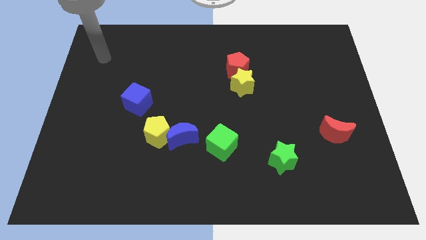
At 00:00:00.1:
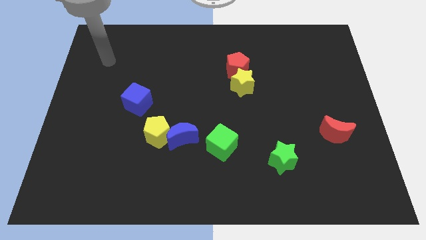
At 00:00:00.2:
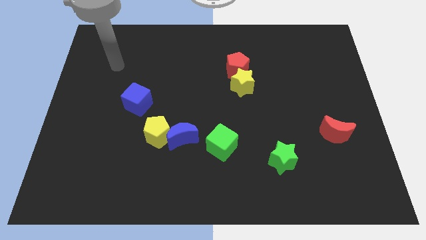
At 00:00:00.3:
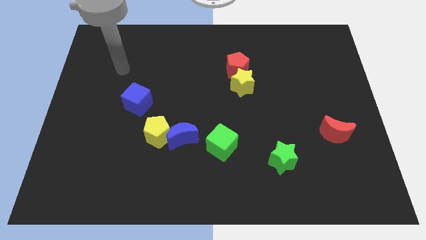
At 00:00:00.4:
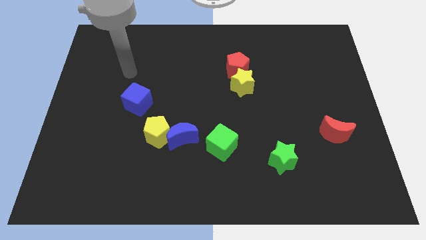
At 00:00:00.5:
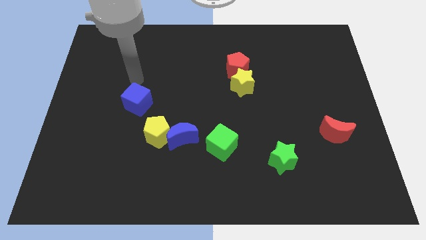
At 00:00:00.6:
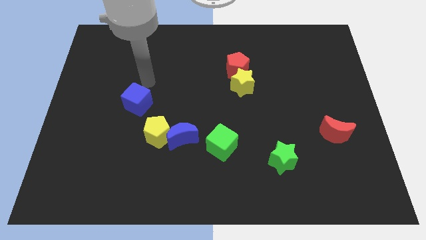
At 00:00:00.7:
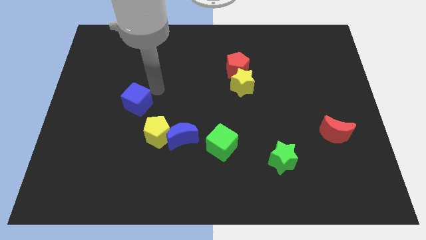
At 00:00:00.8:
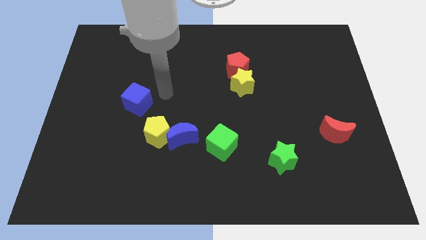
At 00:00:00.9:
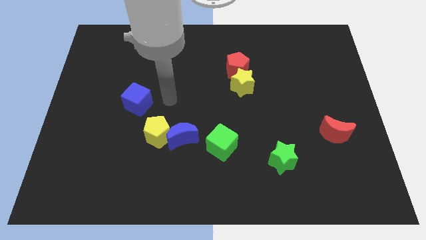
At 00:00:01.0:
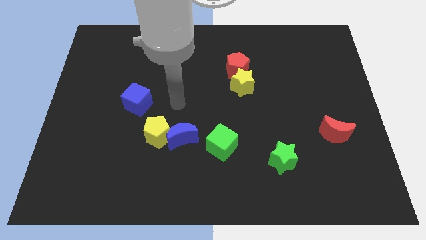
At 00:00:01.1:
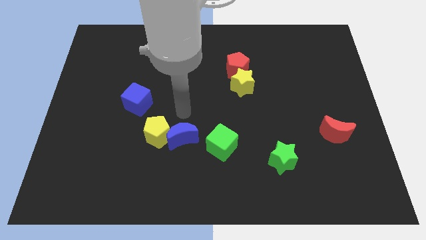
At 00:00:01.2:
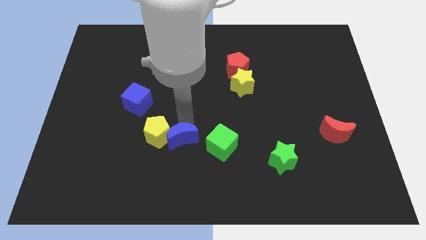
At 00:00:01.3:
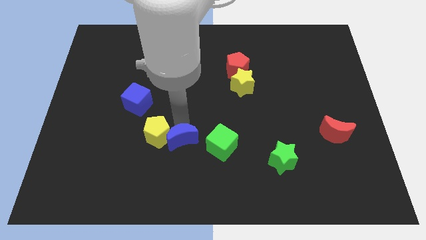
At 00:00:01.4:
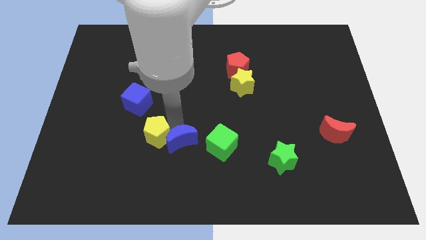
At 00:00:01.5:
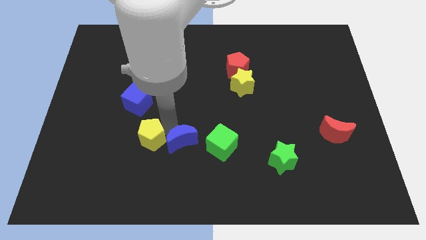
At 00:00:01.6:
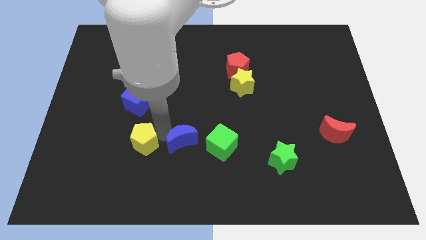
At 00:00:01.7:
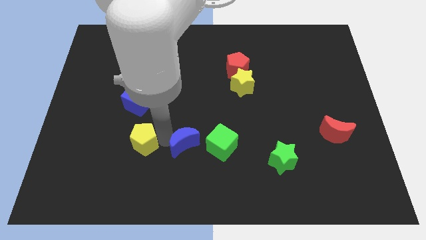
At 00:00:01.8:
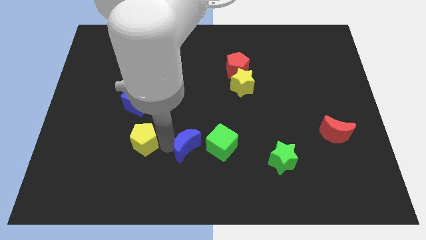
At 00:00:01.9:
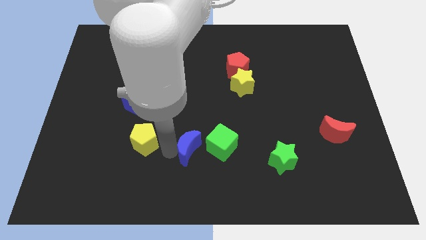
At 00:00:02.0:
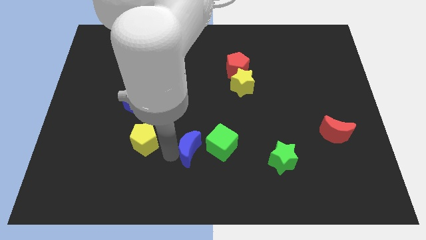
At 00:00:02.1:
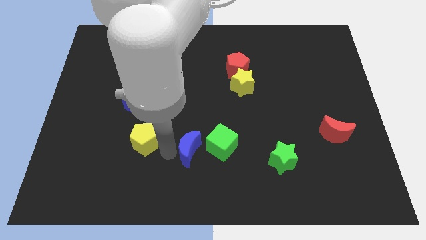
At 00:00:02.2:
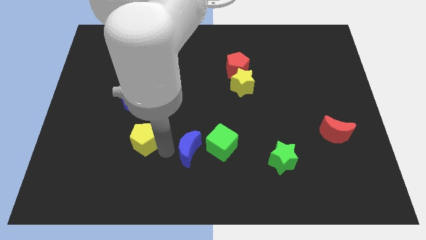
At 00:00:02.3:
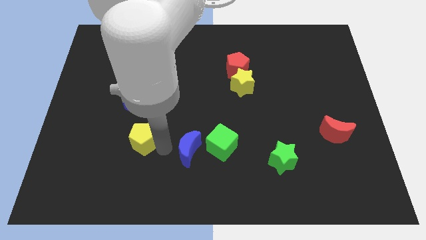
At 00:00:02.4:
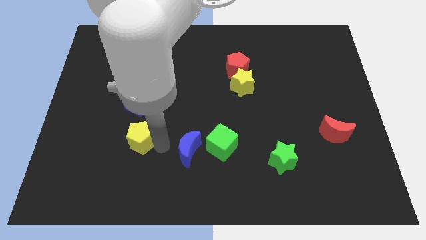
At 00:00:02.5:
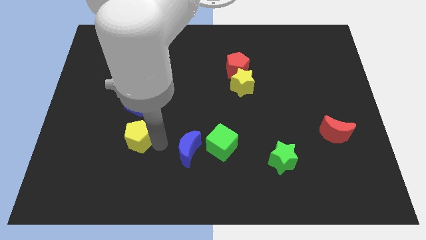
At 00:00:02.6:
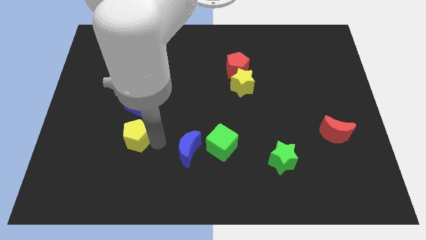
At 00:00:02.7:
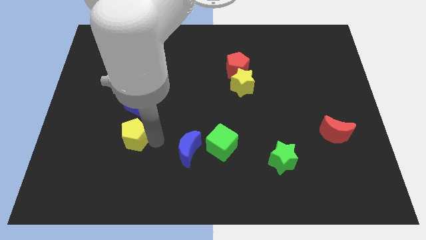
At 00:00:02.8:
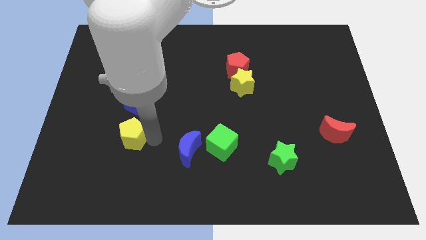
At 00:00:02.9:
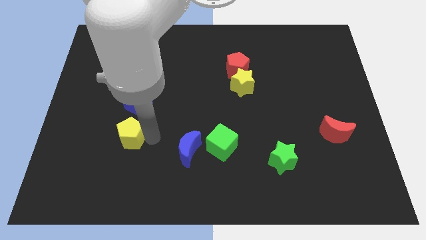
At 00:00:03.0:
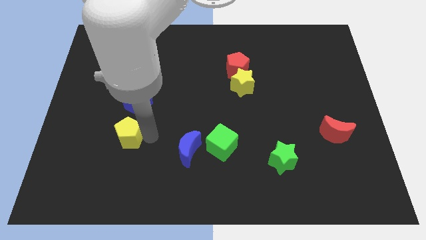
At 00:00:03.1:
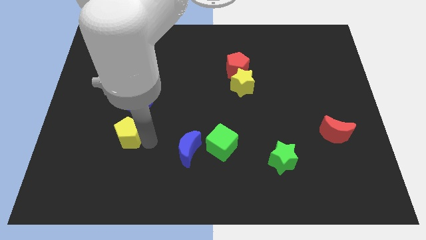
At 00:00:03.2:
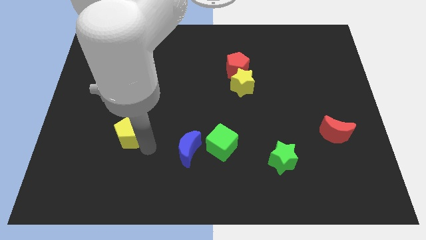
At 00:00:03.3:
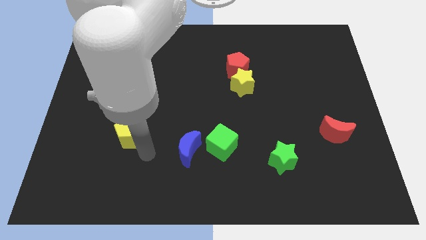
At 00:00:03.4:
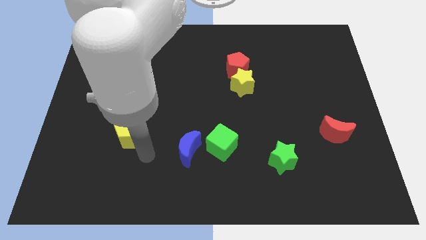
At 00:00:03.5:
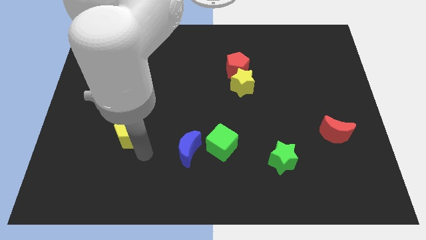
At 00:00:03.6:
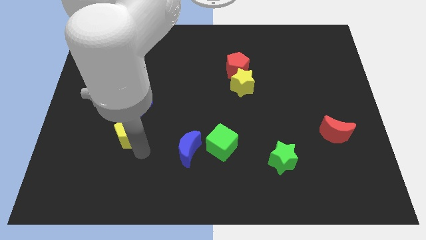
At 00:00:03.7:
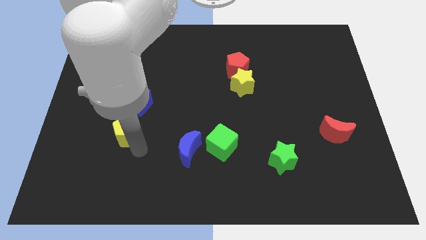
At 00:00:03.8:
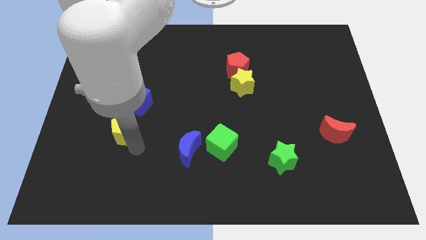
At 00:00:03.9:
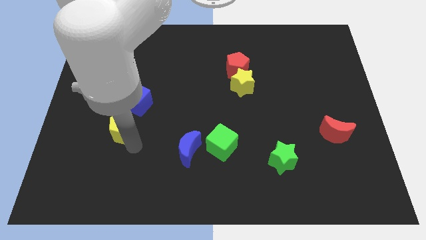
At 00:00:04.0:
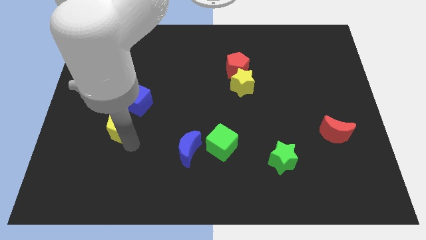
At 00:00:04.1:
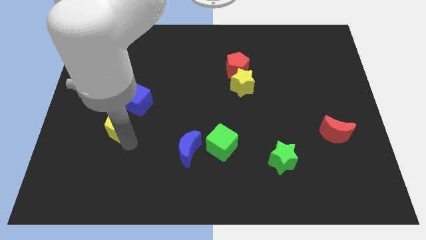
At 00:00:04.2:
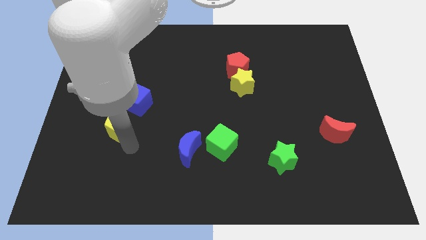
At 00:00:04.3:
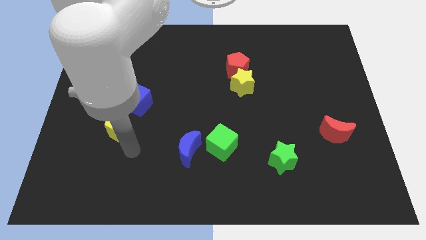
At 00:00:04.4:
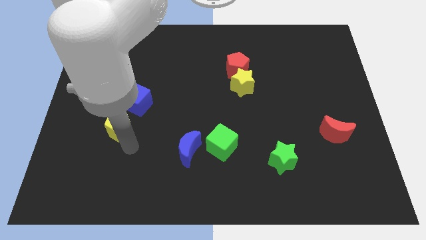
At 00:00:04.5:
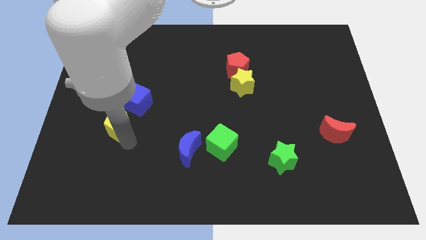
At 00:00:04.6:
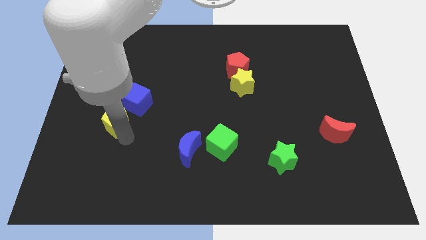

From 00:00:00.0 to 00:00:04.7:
slightly slide the yellow pentagon upwards and to the left diagonally

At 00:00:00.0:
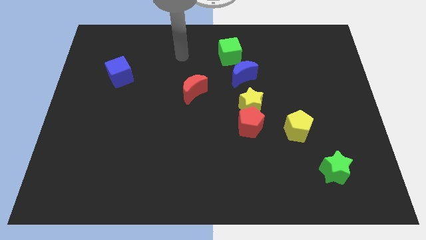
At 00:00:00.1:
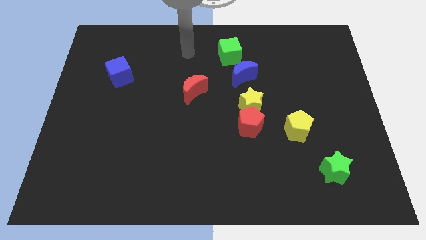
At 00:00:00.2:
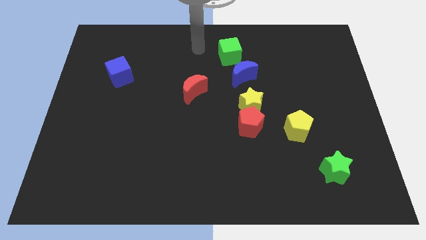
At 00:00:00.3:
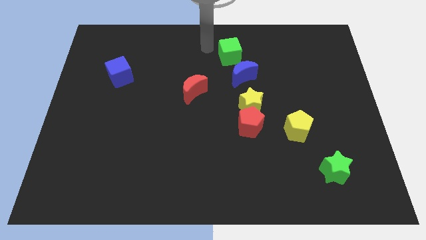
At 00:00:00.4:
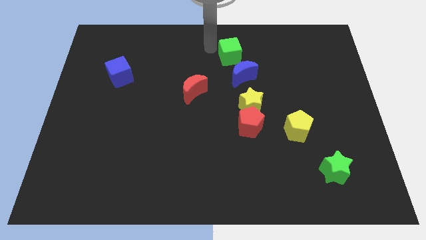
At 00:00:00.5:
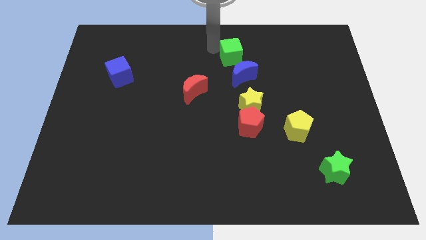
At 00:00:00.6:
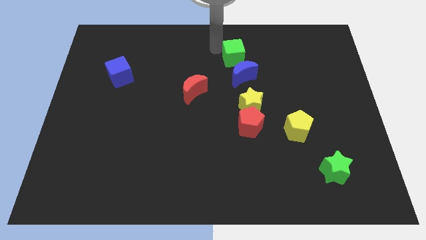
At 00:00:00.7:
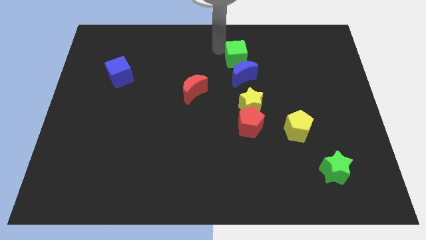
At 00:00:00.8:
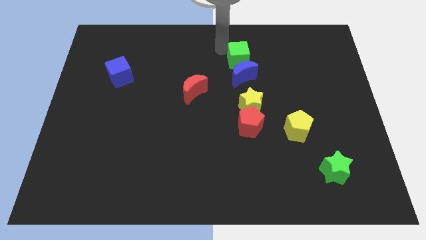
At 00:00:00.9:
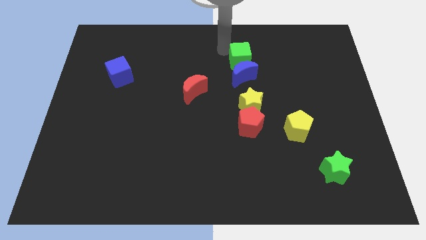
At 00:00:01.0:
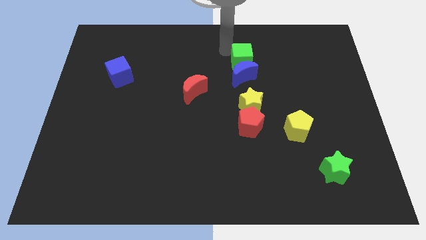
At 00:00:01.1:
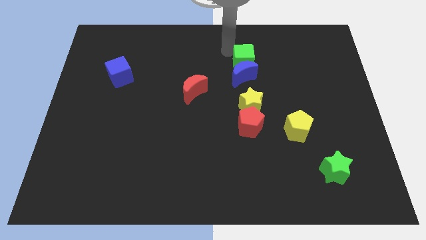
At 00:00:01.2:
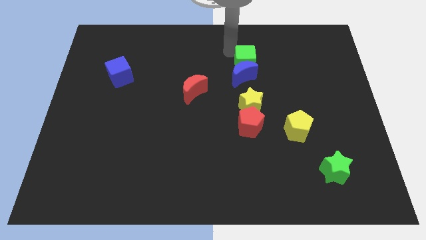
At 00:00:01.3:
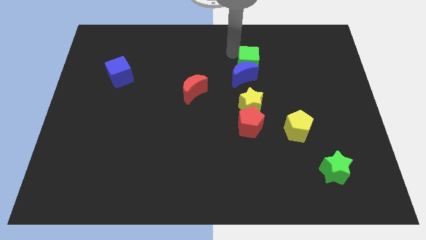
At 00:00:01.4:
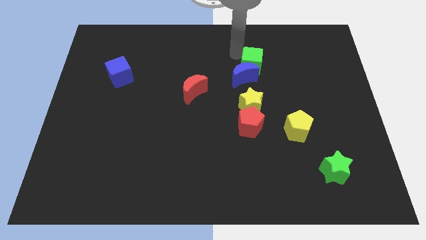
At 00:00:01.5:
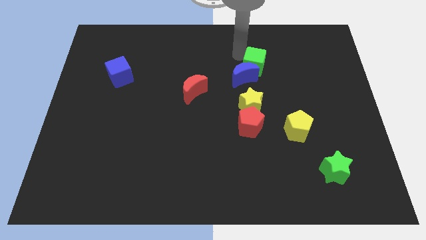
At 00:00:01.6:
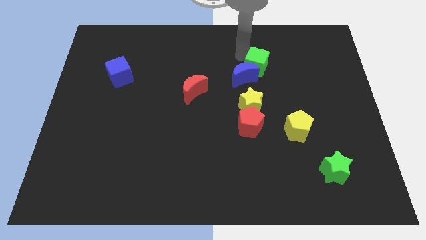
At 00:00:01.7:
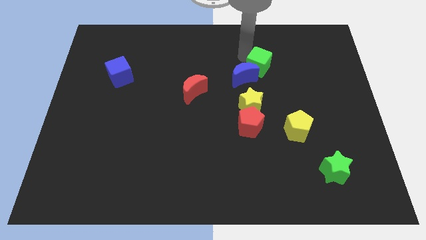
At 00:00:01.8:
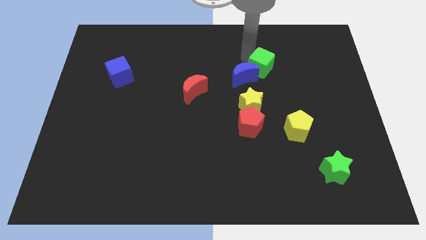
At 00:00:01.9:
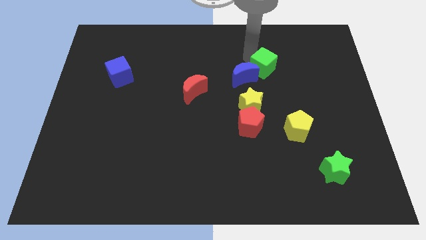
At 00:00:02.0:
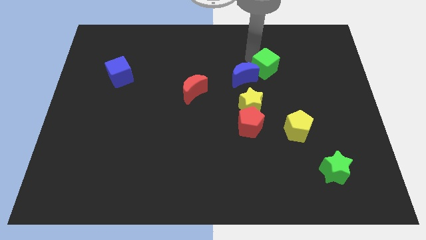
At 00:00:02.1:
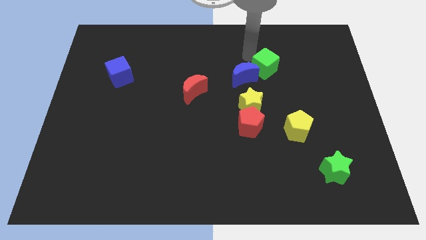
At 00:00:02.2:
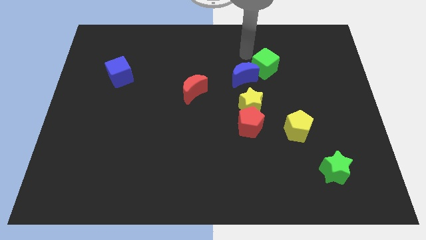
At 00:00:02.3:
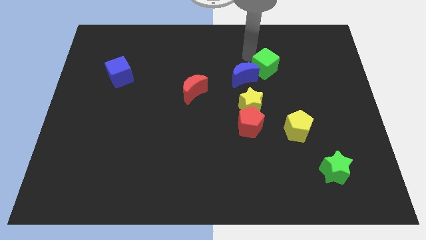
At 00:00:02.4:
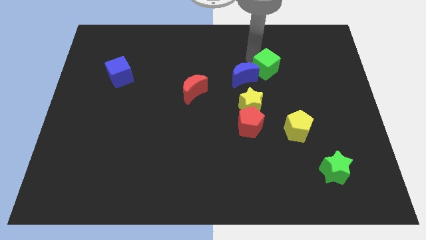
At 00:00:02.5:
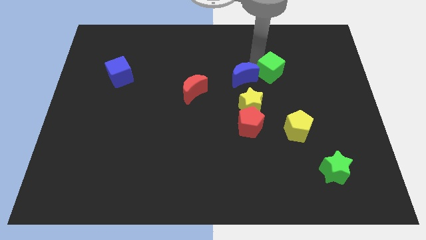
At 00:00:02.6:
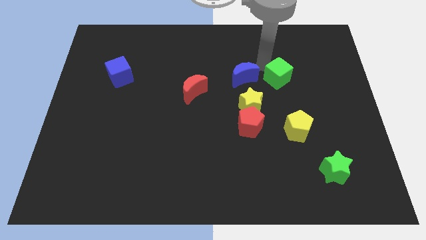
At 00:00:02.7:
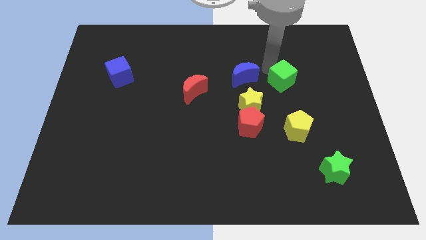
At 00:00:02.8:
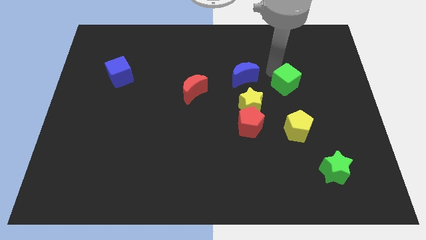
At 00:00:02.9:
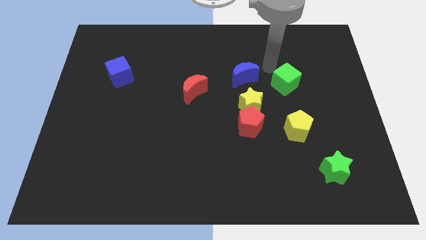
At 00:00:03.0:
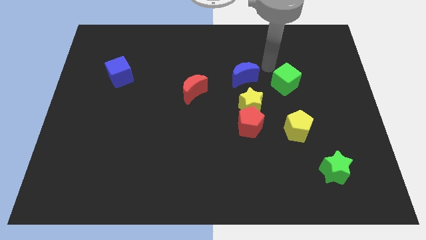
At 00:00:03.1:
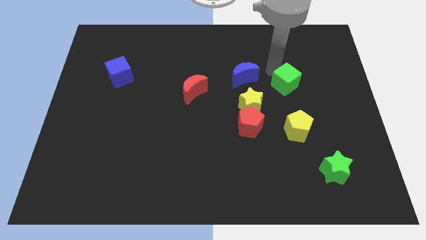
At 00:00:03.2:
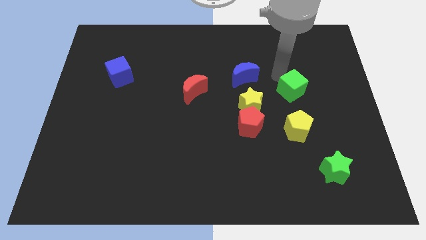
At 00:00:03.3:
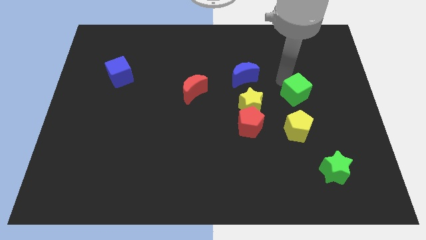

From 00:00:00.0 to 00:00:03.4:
push the green cube downwards and to the right
